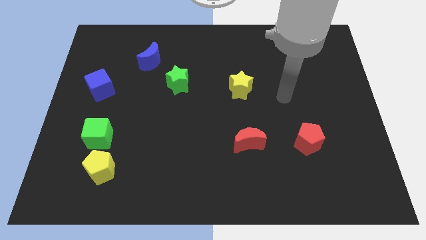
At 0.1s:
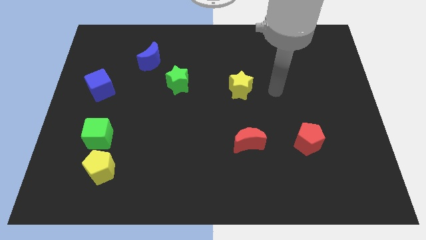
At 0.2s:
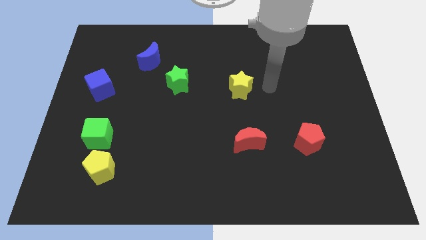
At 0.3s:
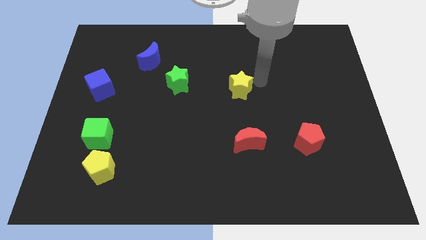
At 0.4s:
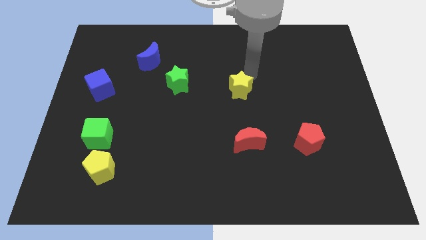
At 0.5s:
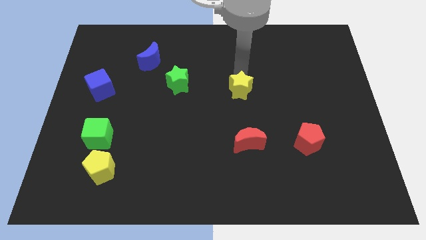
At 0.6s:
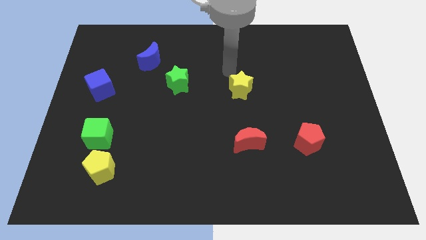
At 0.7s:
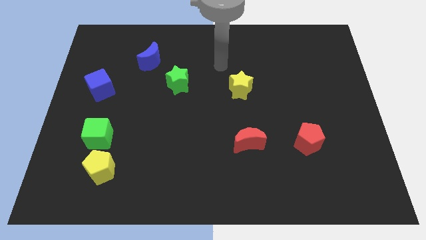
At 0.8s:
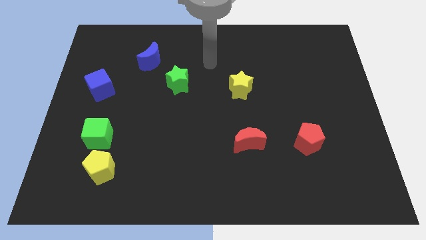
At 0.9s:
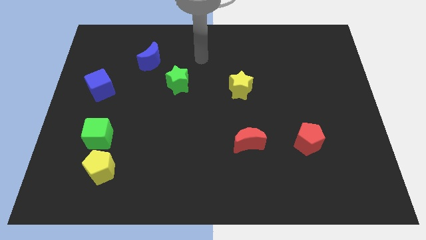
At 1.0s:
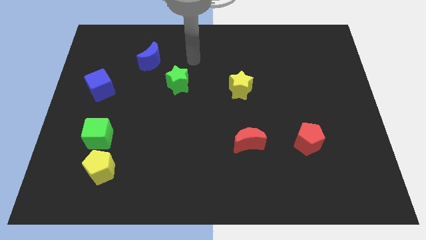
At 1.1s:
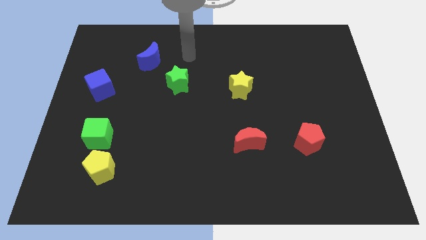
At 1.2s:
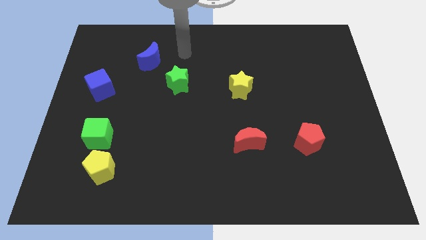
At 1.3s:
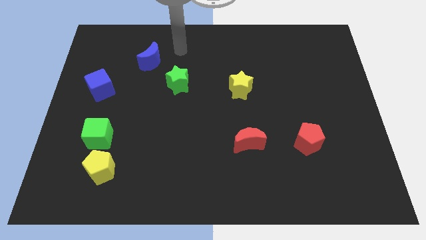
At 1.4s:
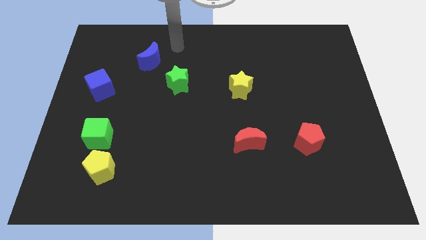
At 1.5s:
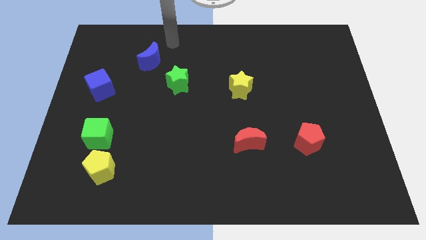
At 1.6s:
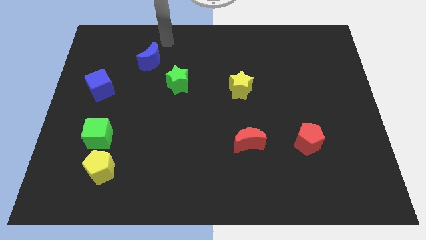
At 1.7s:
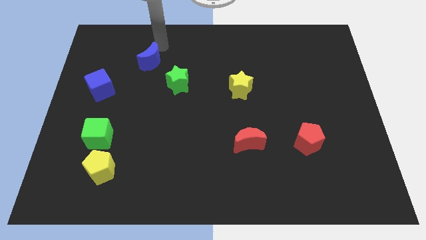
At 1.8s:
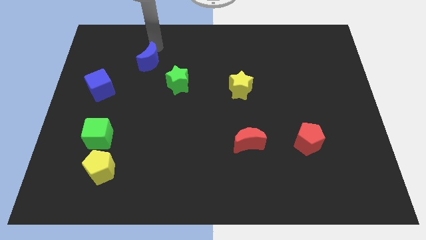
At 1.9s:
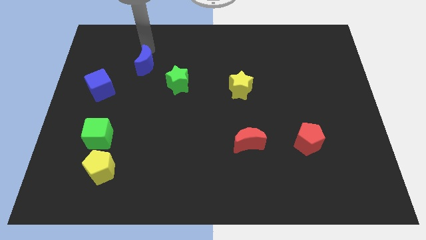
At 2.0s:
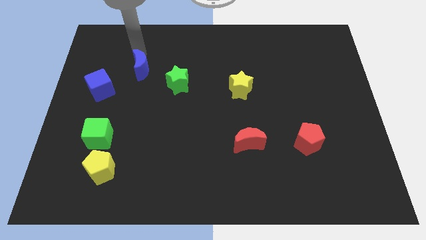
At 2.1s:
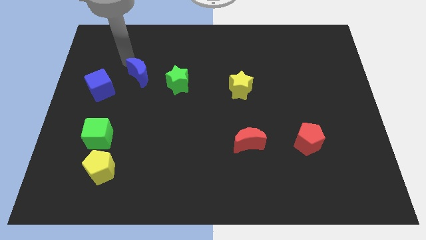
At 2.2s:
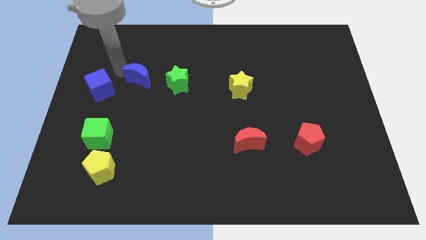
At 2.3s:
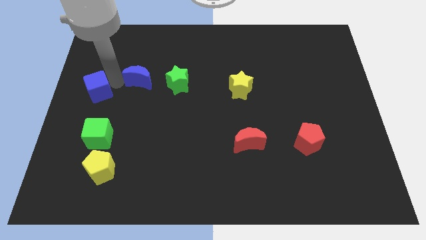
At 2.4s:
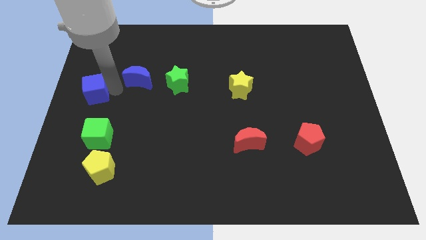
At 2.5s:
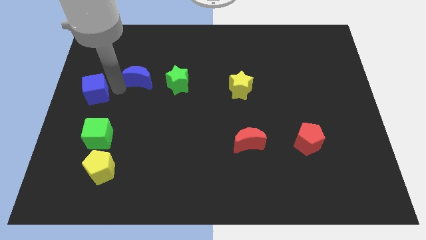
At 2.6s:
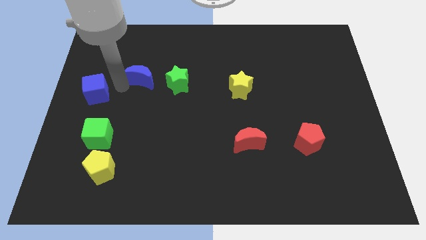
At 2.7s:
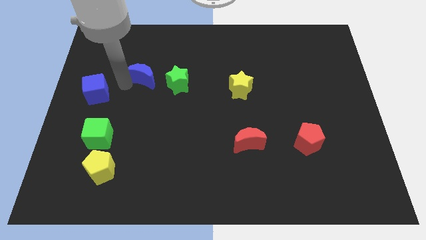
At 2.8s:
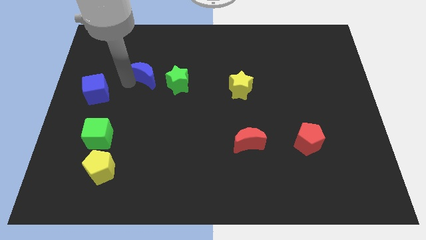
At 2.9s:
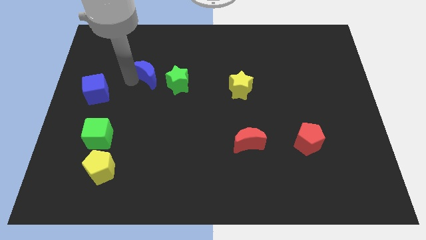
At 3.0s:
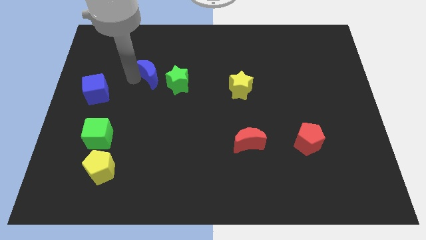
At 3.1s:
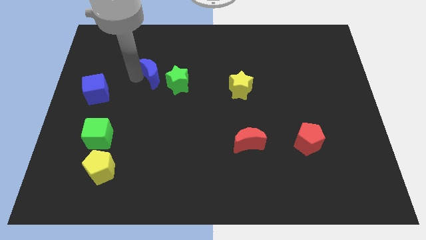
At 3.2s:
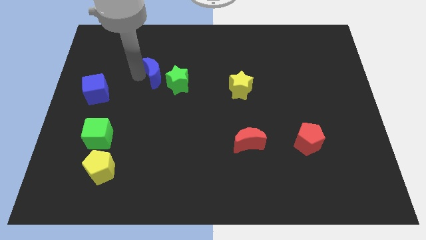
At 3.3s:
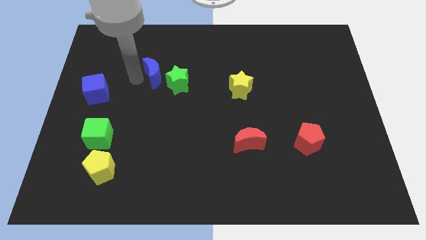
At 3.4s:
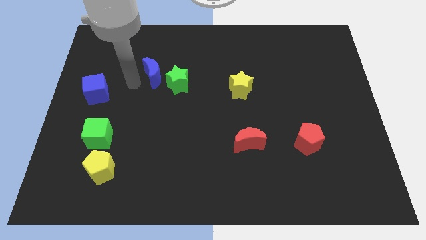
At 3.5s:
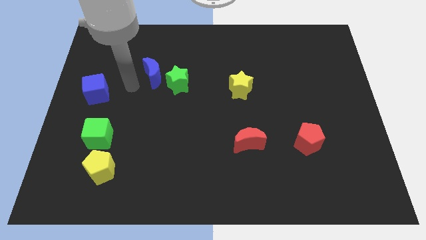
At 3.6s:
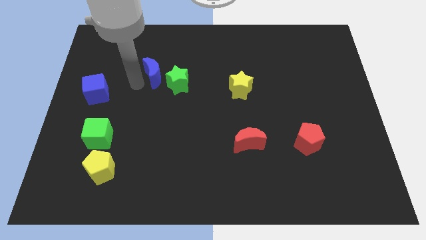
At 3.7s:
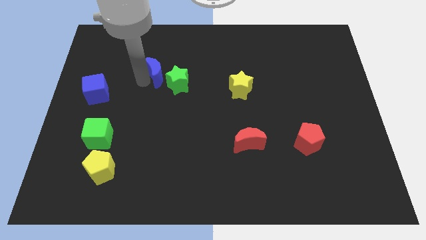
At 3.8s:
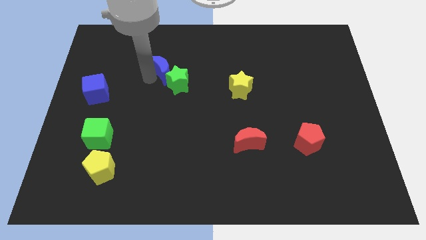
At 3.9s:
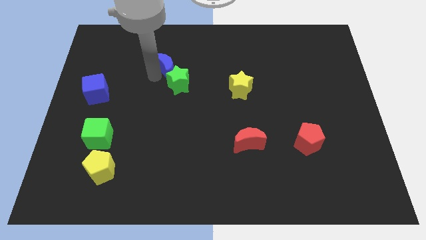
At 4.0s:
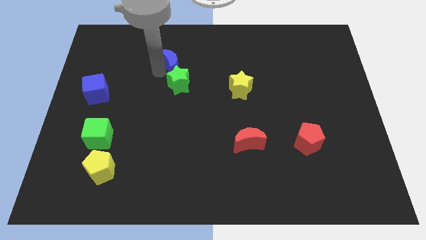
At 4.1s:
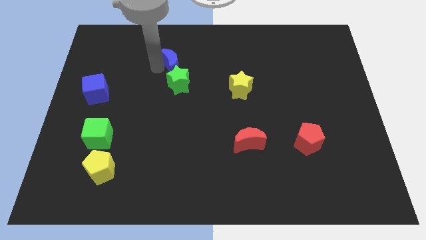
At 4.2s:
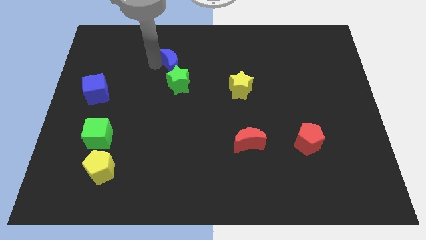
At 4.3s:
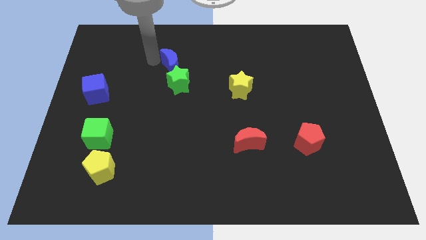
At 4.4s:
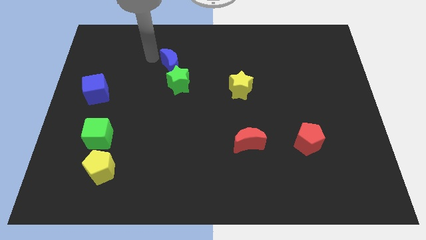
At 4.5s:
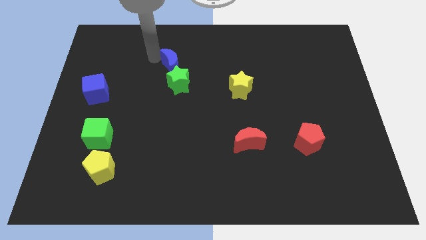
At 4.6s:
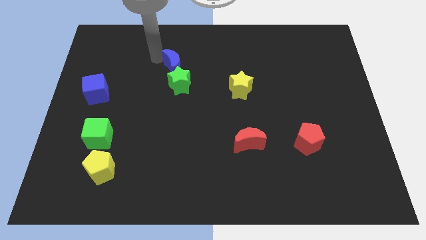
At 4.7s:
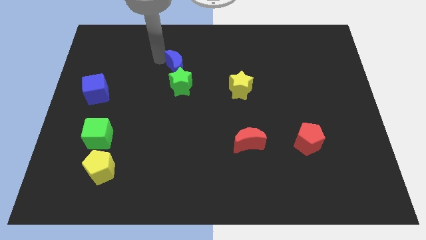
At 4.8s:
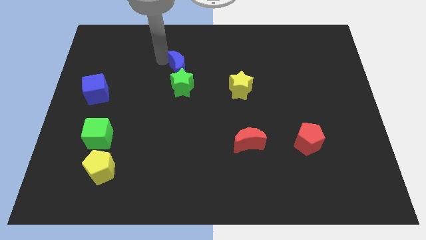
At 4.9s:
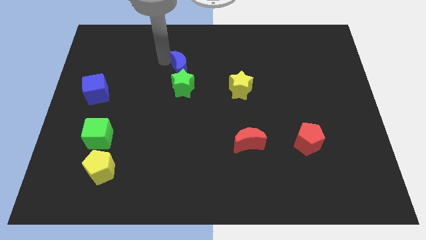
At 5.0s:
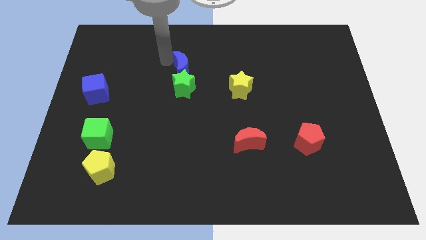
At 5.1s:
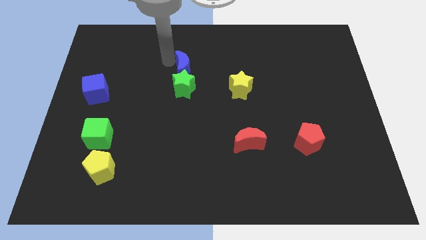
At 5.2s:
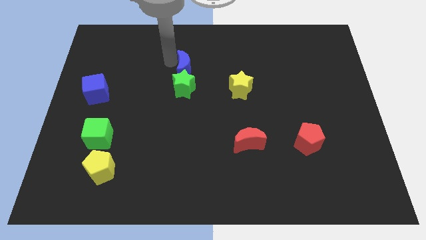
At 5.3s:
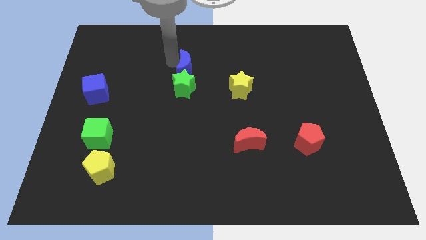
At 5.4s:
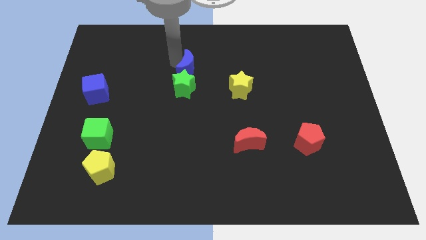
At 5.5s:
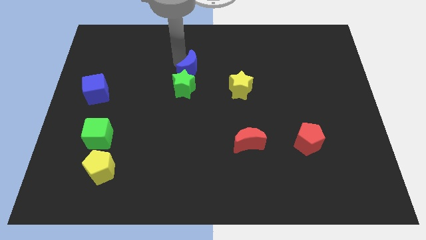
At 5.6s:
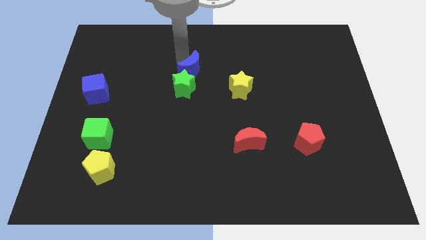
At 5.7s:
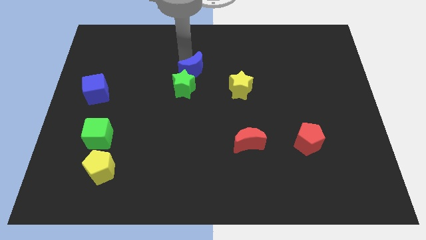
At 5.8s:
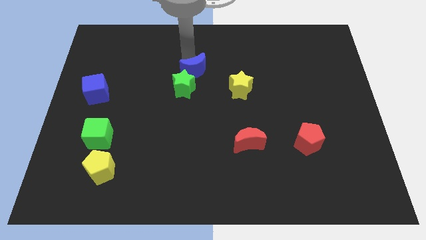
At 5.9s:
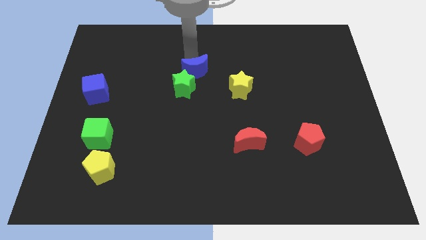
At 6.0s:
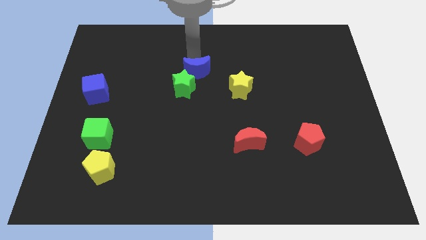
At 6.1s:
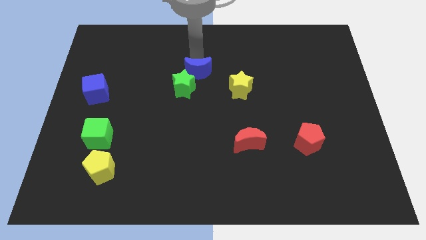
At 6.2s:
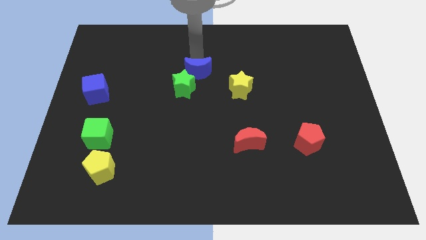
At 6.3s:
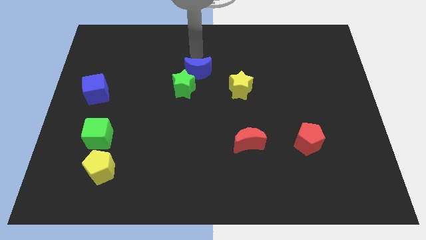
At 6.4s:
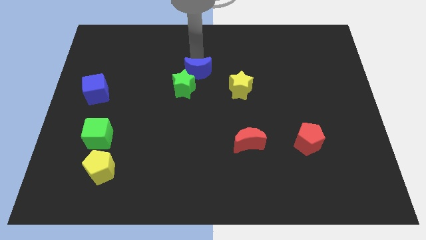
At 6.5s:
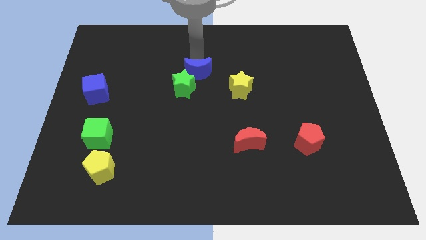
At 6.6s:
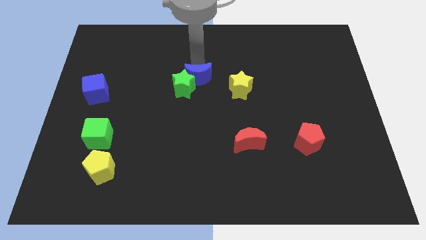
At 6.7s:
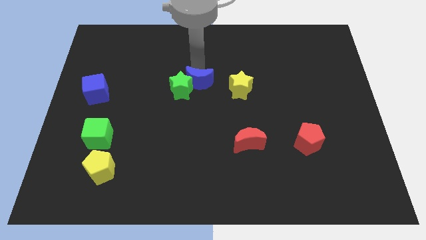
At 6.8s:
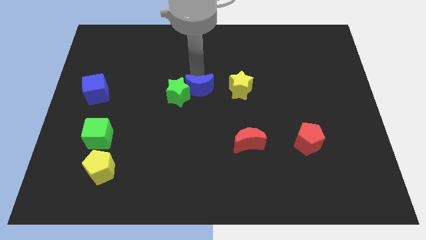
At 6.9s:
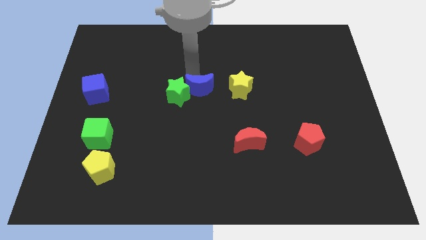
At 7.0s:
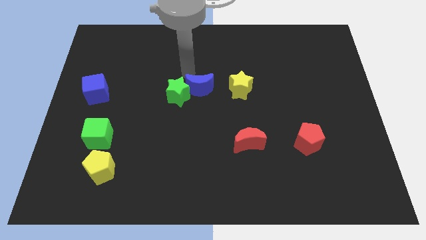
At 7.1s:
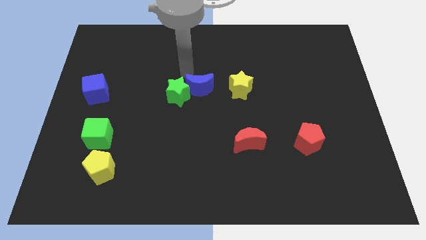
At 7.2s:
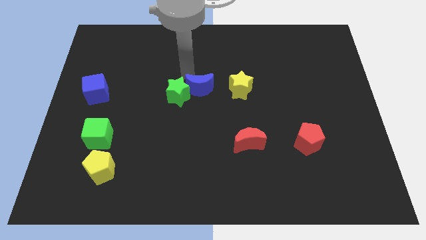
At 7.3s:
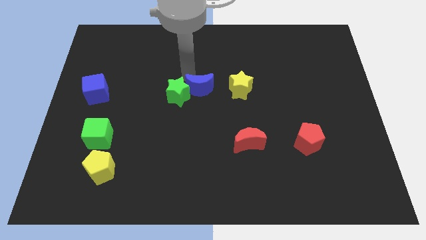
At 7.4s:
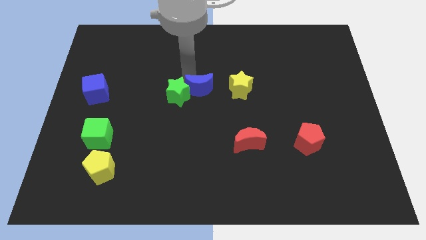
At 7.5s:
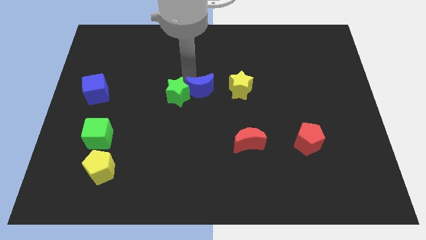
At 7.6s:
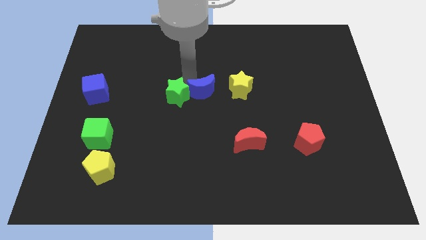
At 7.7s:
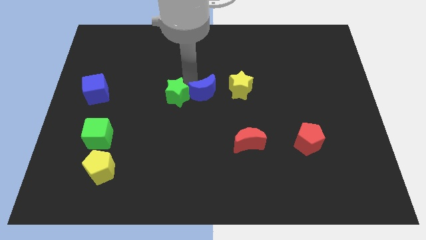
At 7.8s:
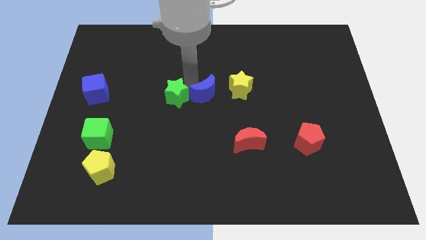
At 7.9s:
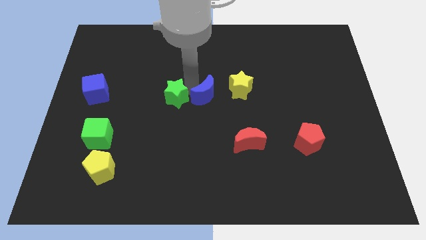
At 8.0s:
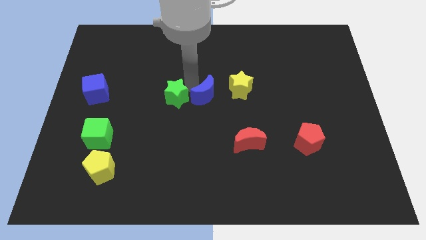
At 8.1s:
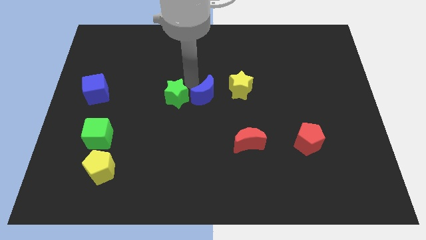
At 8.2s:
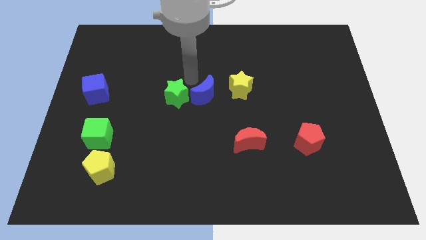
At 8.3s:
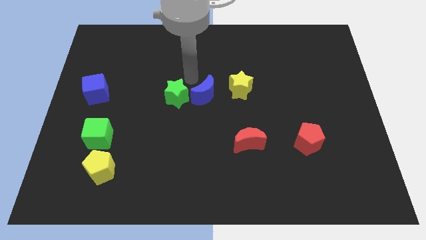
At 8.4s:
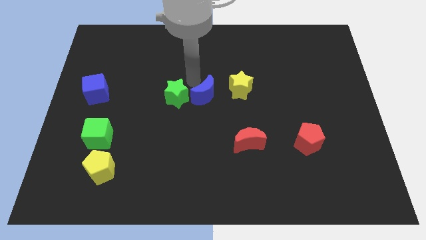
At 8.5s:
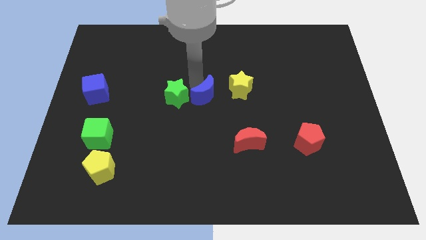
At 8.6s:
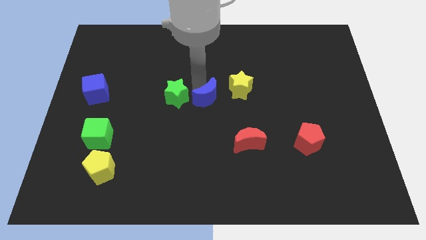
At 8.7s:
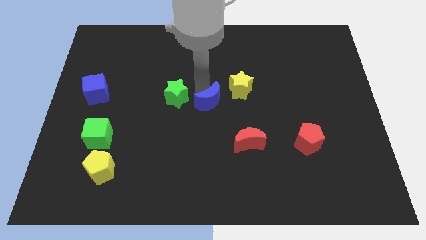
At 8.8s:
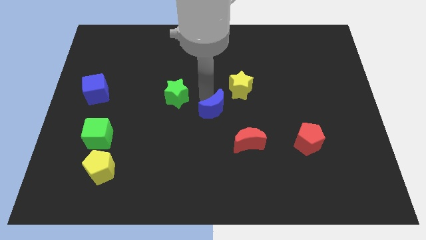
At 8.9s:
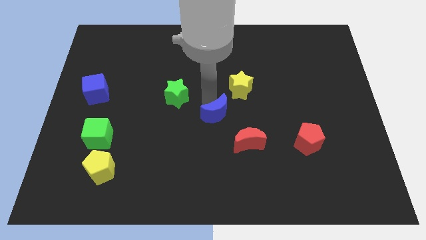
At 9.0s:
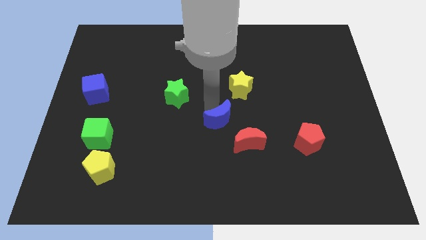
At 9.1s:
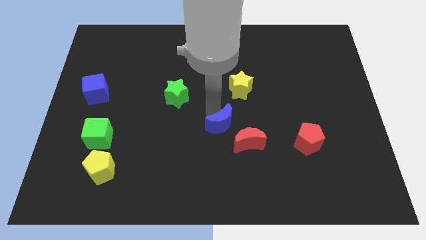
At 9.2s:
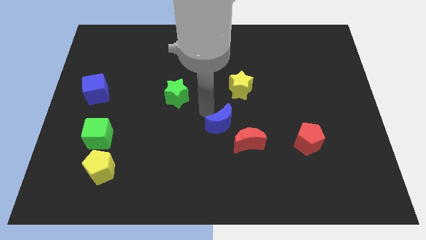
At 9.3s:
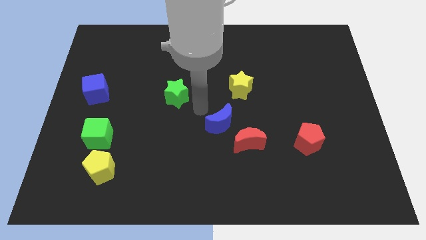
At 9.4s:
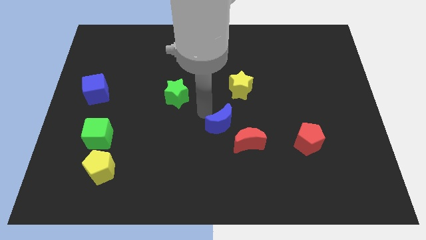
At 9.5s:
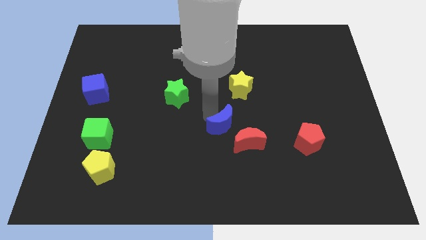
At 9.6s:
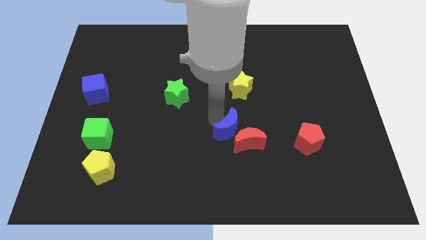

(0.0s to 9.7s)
move the blue moon close to the red moon
